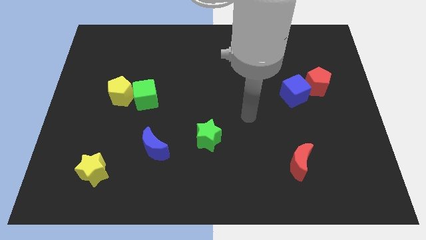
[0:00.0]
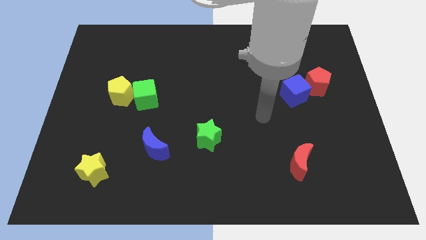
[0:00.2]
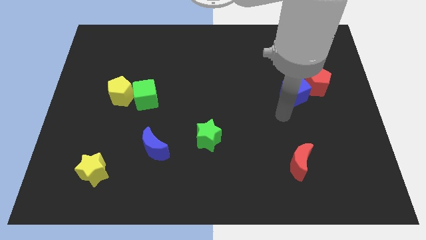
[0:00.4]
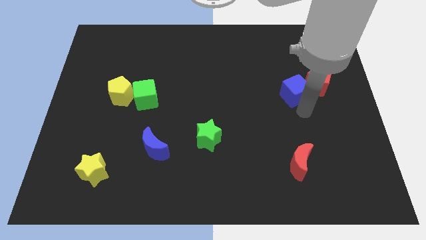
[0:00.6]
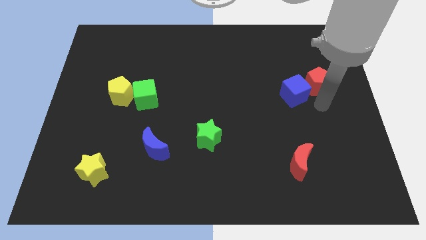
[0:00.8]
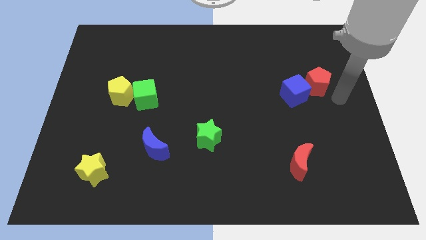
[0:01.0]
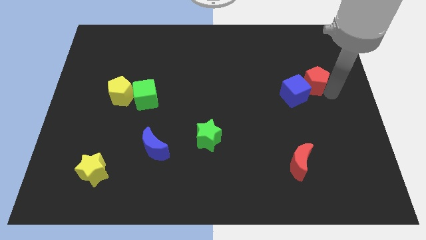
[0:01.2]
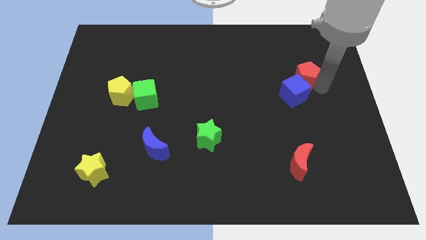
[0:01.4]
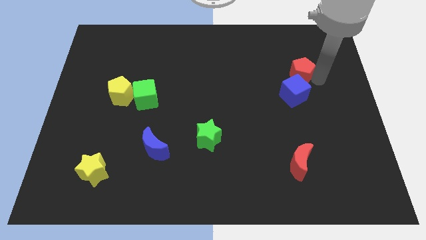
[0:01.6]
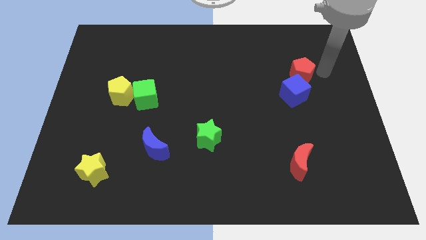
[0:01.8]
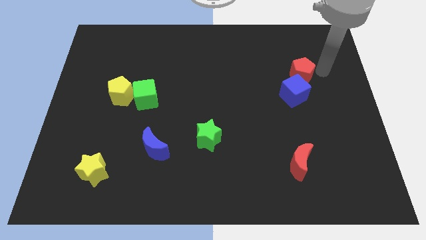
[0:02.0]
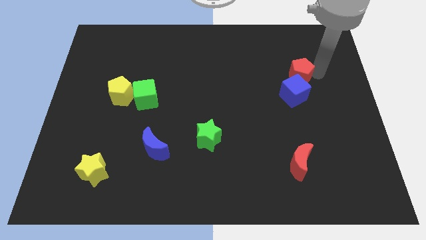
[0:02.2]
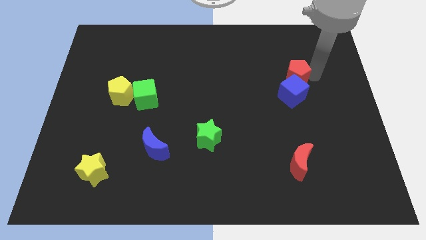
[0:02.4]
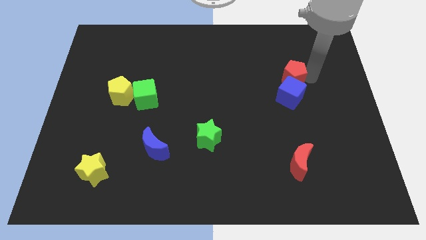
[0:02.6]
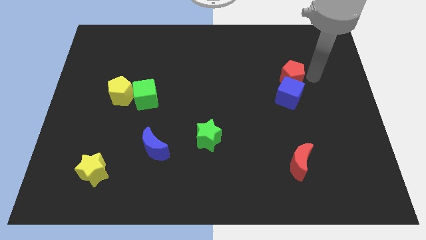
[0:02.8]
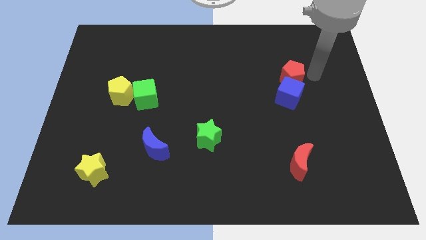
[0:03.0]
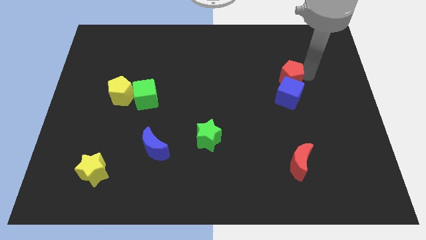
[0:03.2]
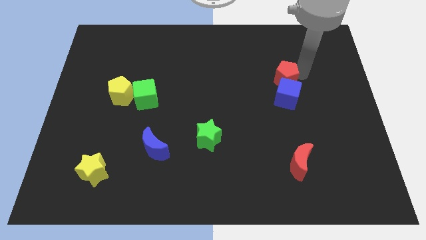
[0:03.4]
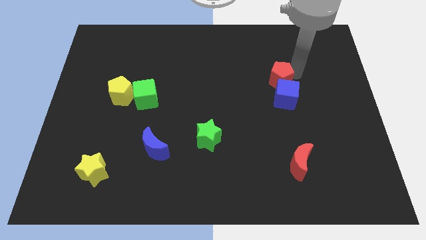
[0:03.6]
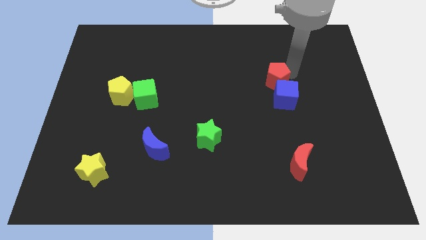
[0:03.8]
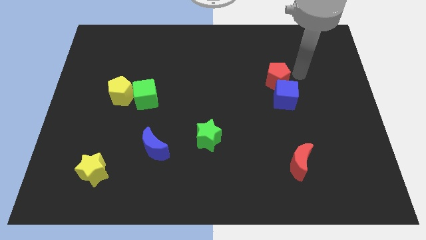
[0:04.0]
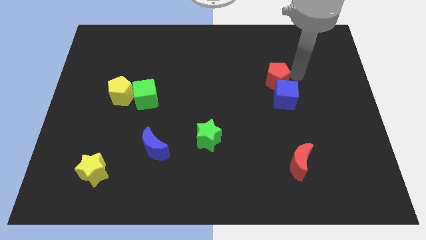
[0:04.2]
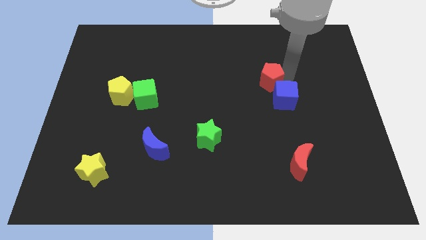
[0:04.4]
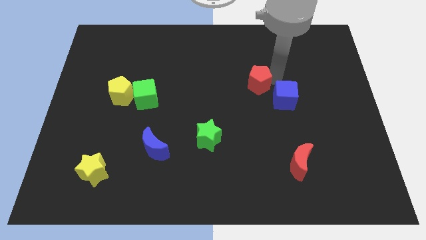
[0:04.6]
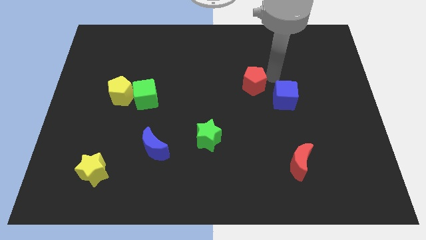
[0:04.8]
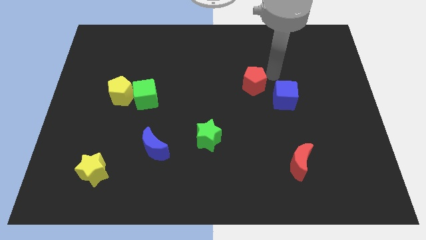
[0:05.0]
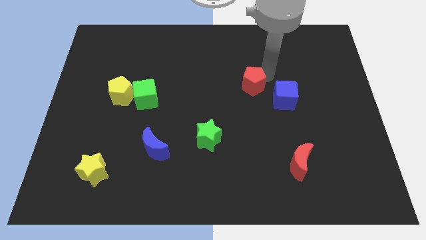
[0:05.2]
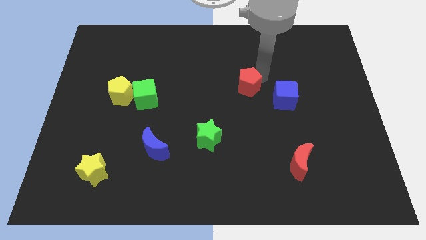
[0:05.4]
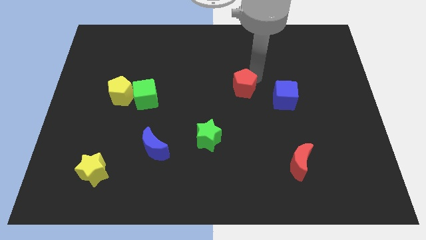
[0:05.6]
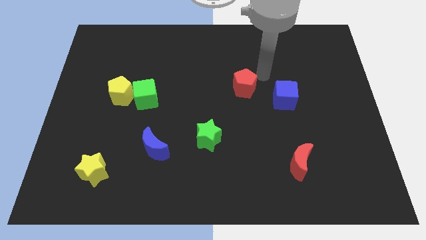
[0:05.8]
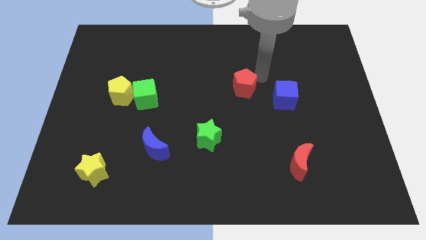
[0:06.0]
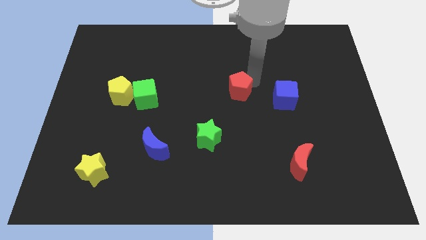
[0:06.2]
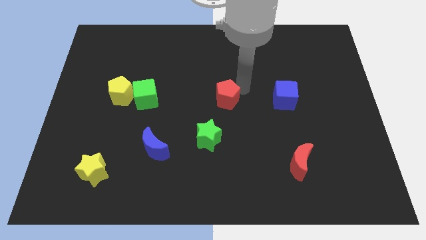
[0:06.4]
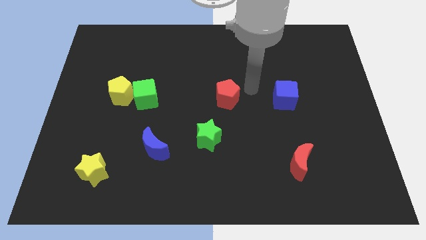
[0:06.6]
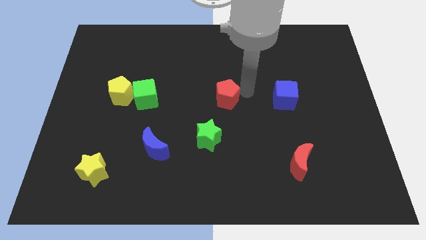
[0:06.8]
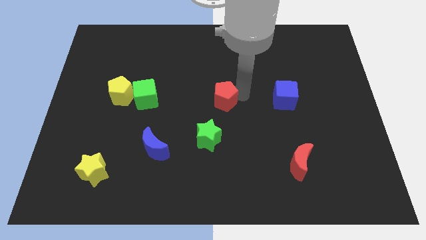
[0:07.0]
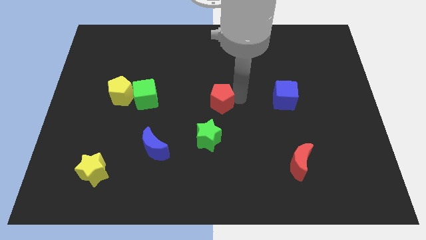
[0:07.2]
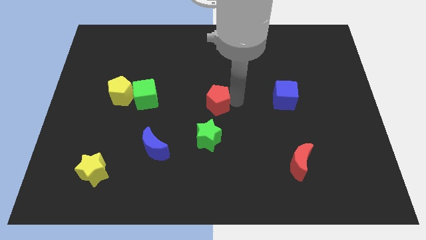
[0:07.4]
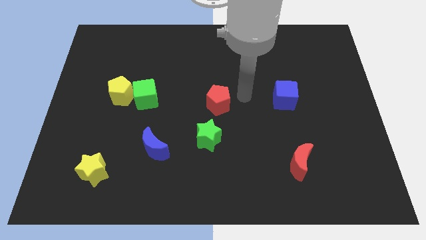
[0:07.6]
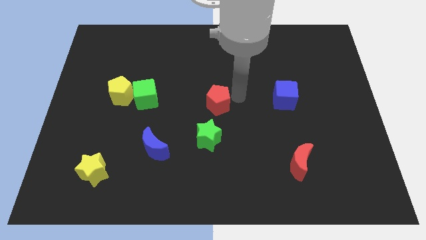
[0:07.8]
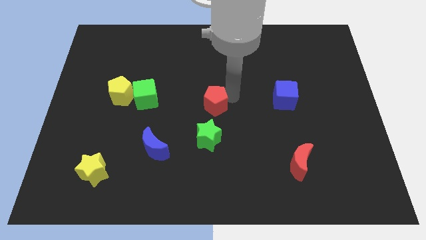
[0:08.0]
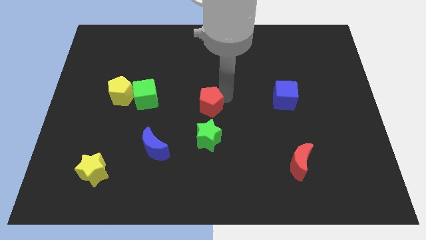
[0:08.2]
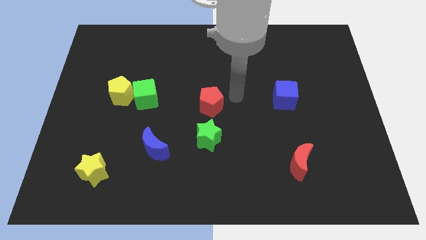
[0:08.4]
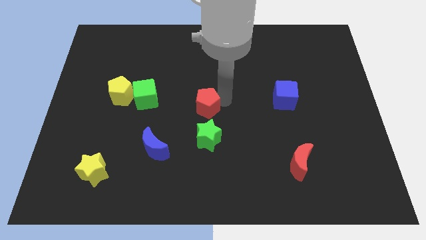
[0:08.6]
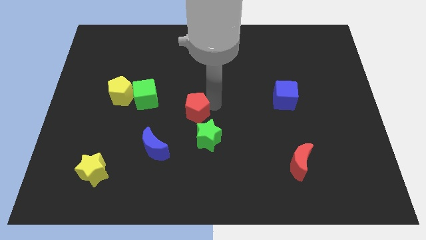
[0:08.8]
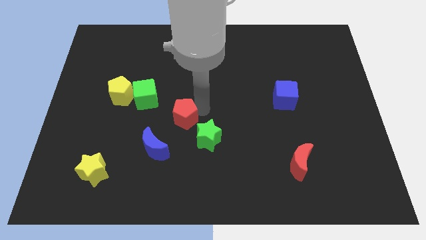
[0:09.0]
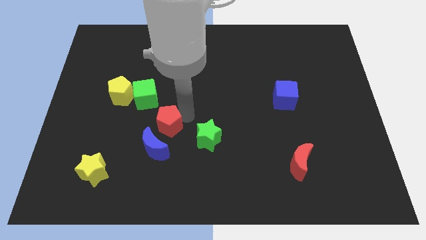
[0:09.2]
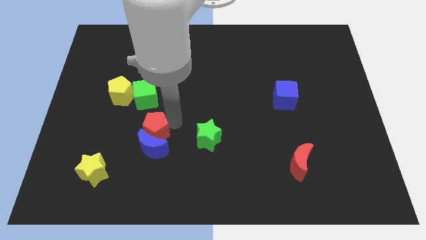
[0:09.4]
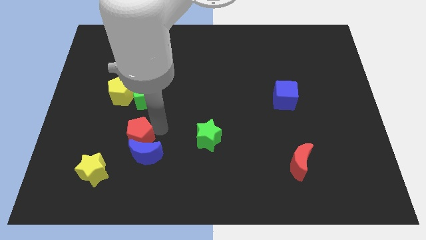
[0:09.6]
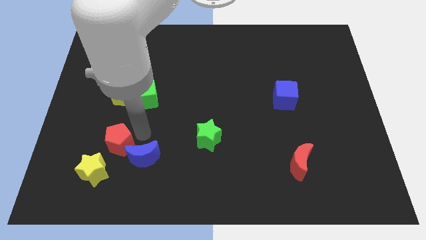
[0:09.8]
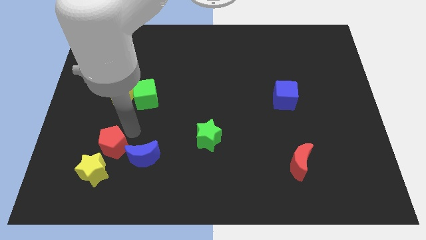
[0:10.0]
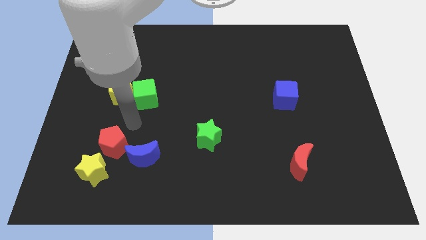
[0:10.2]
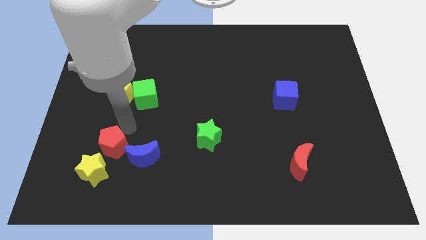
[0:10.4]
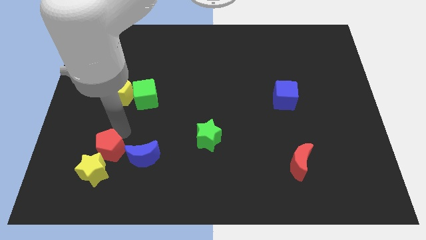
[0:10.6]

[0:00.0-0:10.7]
push the red pentagon to the yellow star

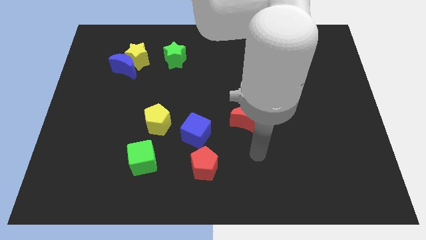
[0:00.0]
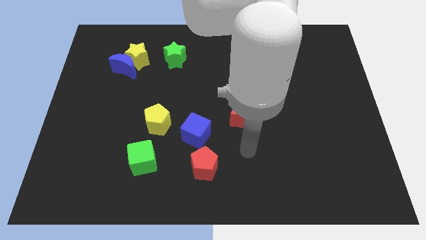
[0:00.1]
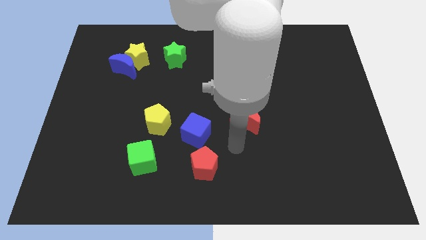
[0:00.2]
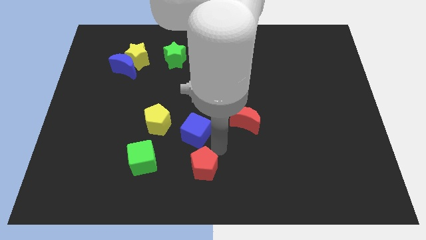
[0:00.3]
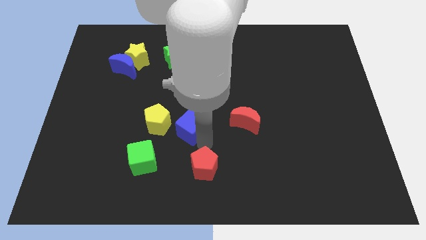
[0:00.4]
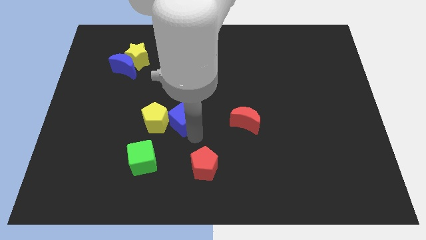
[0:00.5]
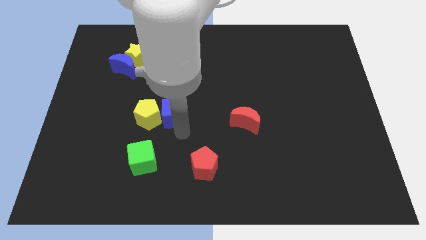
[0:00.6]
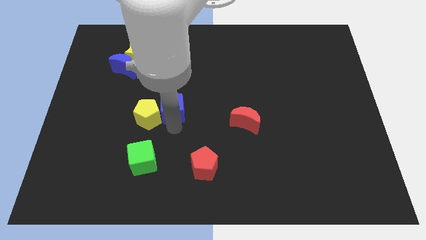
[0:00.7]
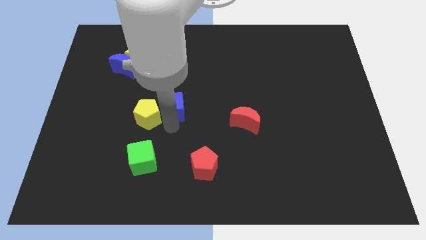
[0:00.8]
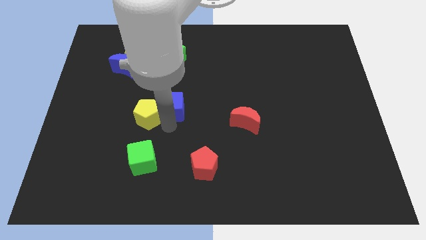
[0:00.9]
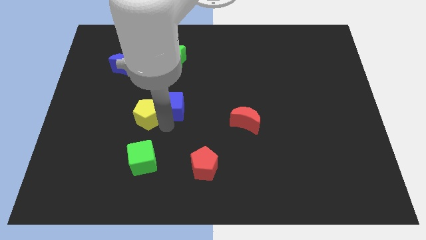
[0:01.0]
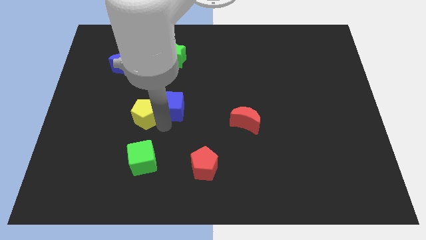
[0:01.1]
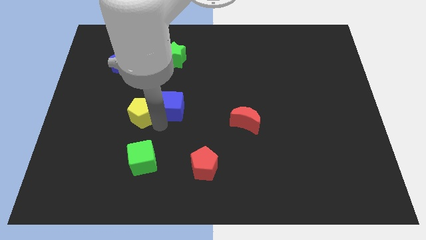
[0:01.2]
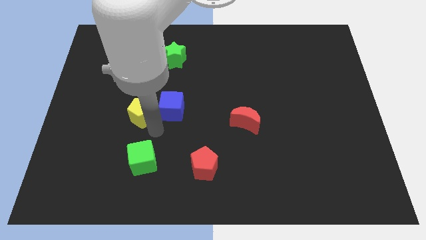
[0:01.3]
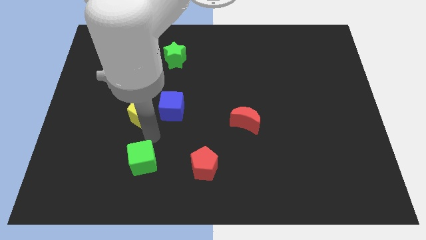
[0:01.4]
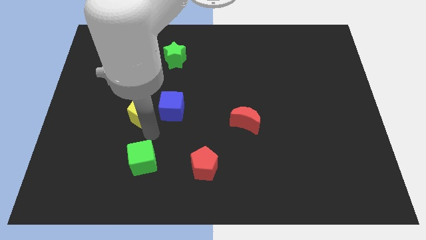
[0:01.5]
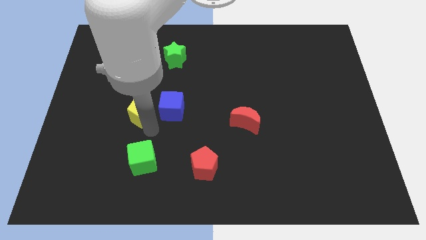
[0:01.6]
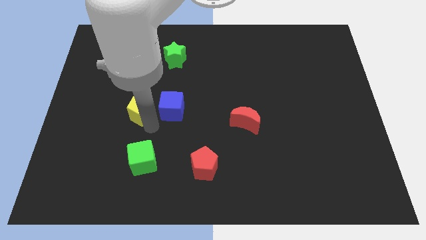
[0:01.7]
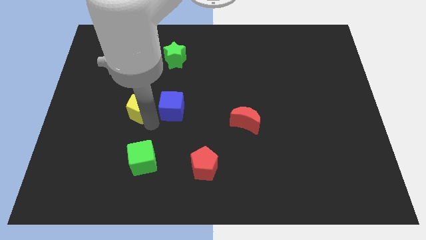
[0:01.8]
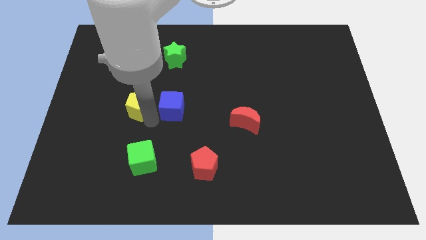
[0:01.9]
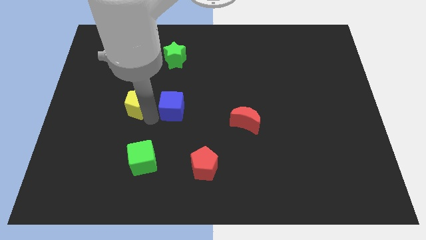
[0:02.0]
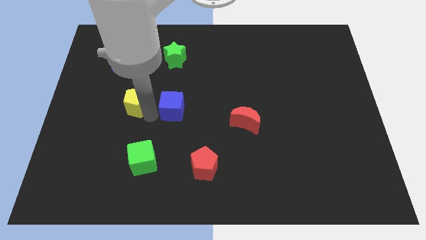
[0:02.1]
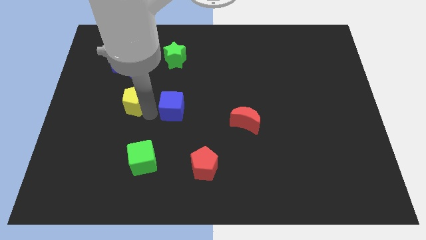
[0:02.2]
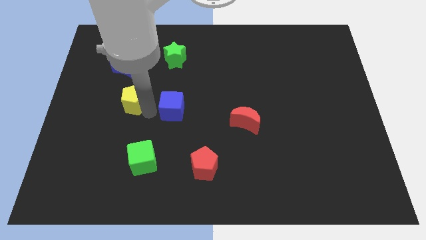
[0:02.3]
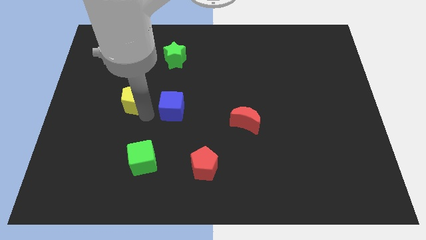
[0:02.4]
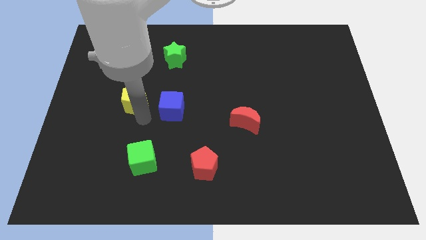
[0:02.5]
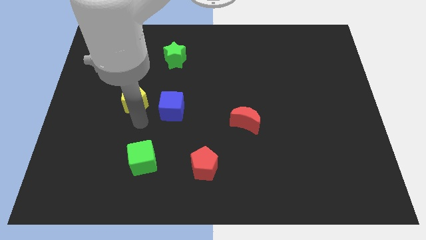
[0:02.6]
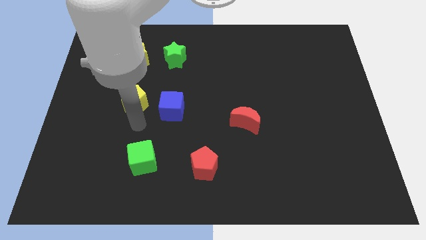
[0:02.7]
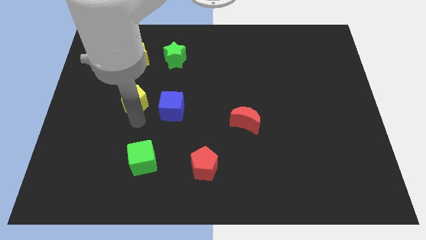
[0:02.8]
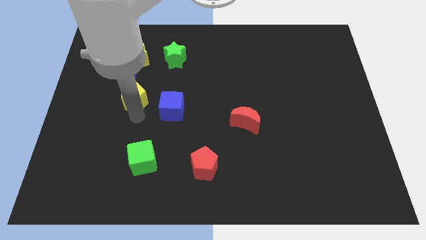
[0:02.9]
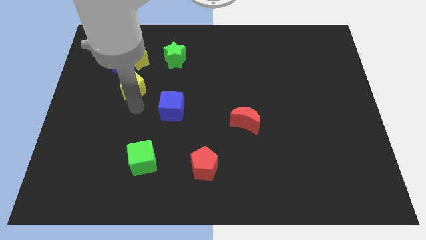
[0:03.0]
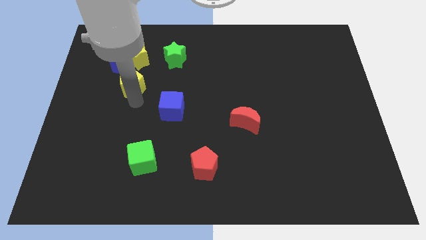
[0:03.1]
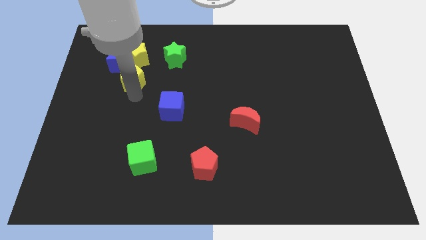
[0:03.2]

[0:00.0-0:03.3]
push the yellow pentagon to the blue moon
